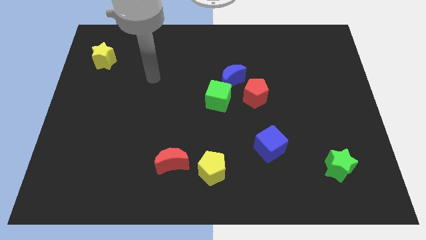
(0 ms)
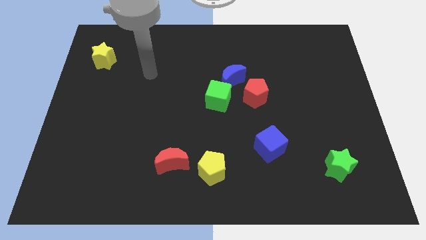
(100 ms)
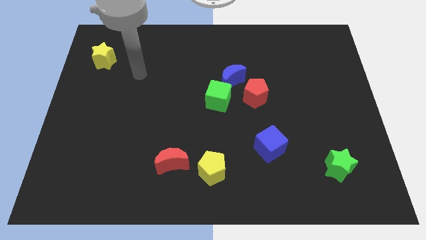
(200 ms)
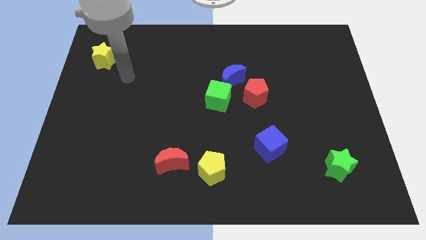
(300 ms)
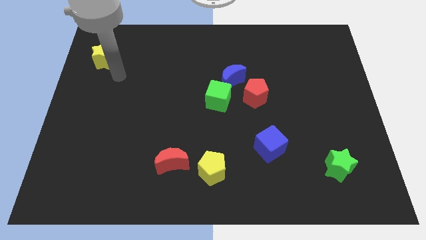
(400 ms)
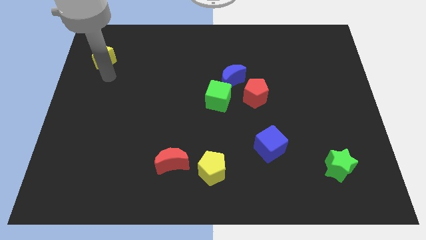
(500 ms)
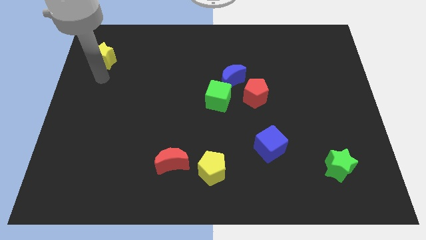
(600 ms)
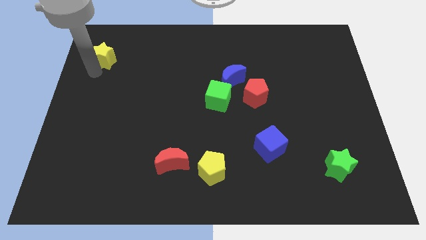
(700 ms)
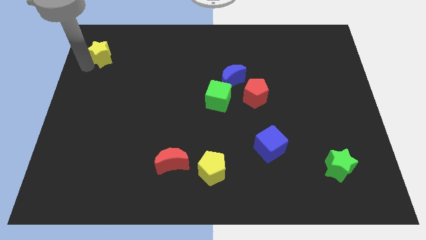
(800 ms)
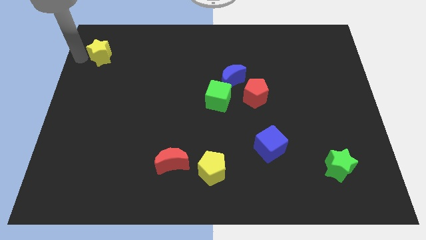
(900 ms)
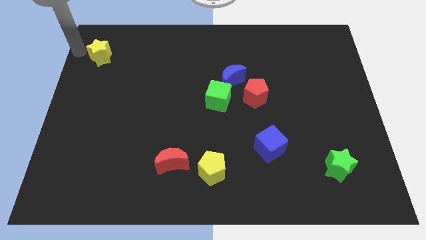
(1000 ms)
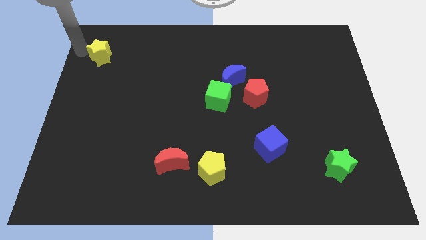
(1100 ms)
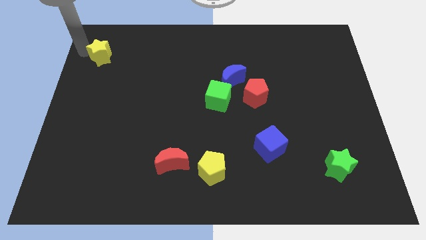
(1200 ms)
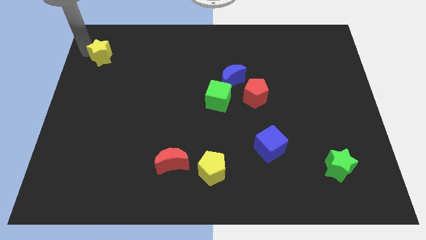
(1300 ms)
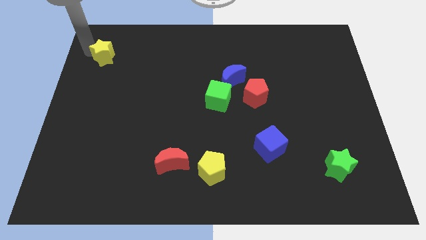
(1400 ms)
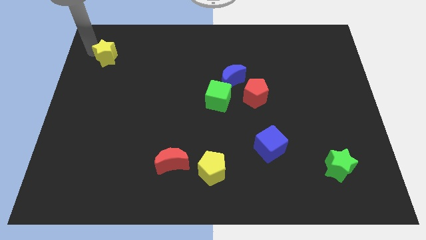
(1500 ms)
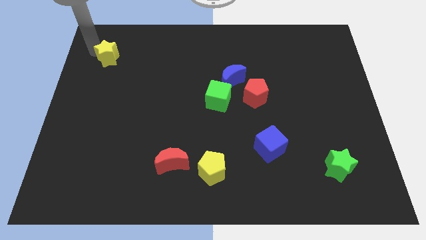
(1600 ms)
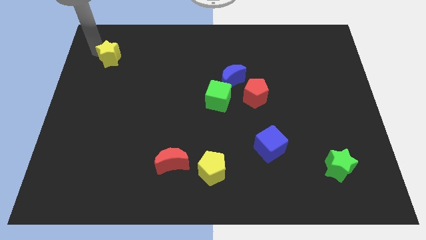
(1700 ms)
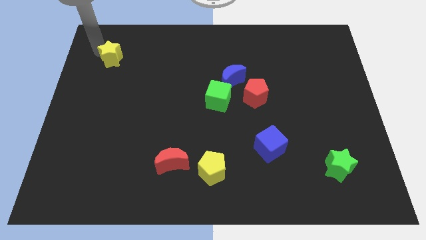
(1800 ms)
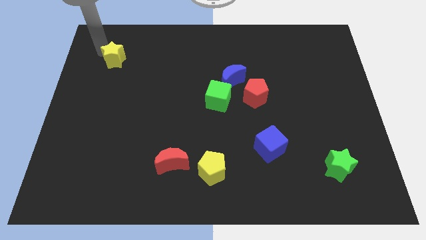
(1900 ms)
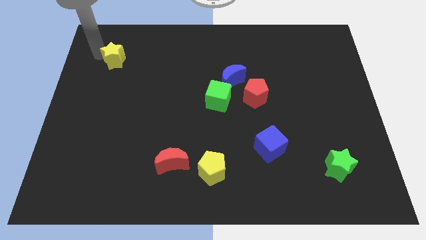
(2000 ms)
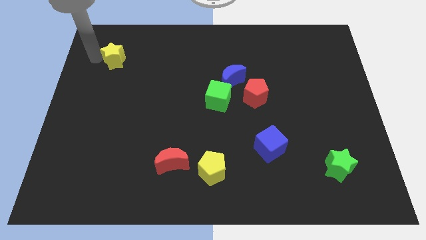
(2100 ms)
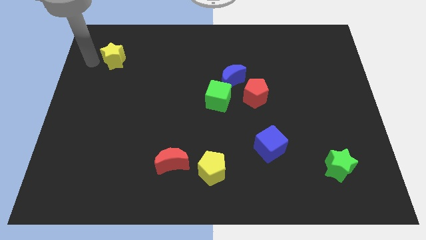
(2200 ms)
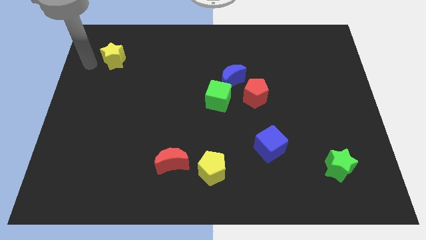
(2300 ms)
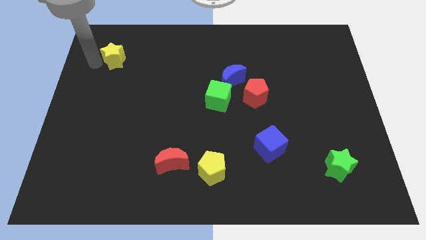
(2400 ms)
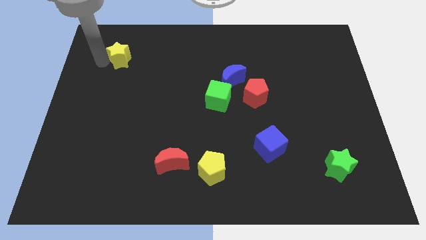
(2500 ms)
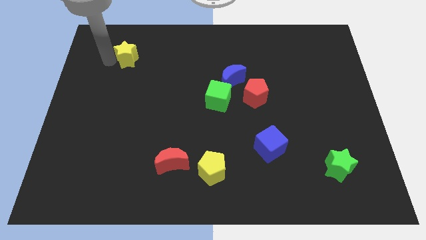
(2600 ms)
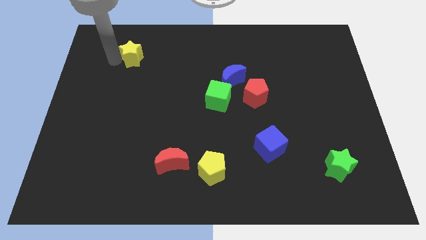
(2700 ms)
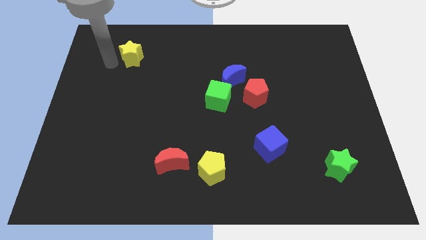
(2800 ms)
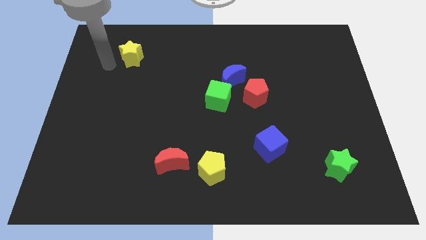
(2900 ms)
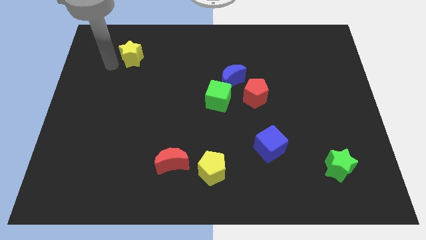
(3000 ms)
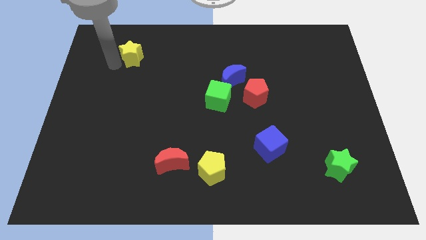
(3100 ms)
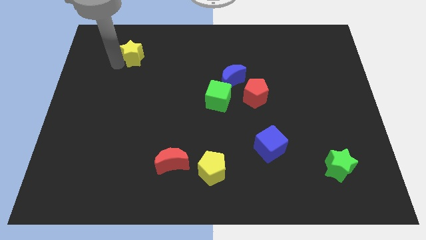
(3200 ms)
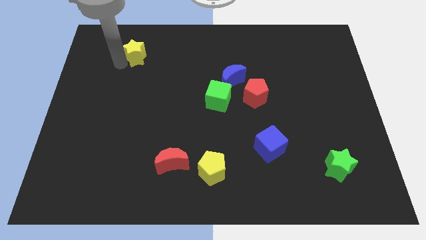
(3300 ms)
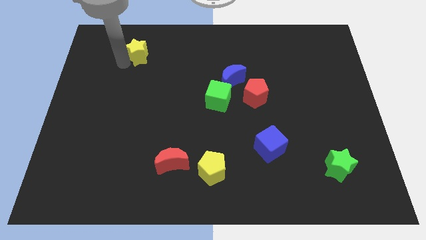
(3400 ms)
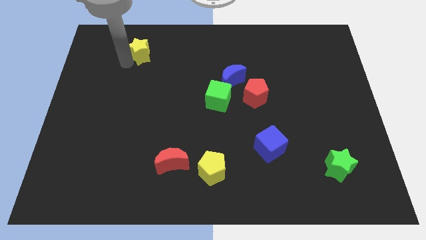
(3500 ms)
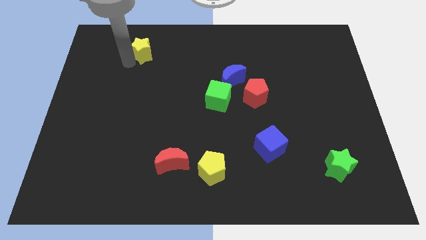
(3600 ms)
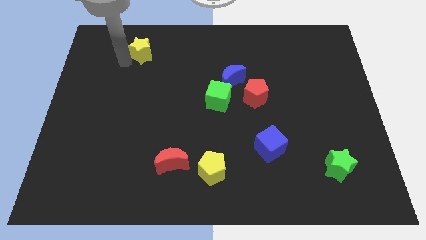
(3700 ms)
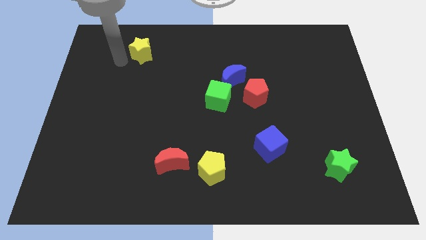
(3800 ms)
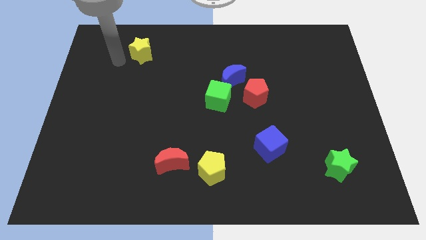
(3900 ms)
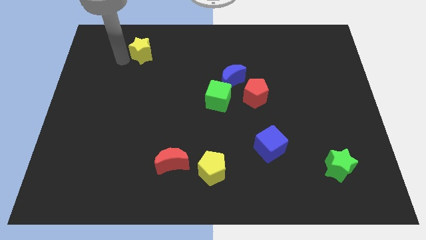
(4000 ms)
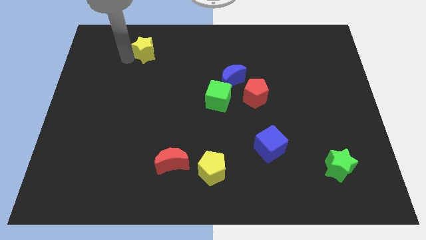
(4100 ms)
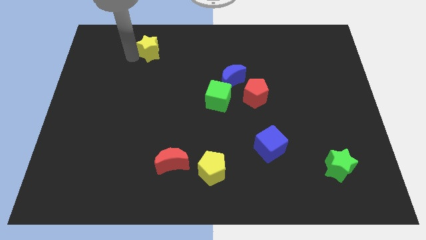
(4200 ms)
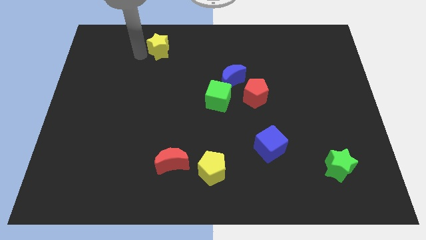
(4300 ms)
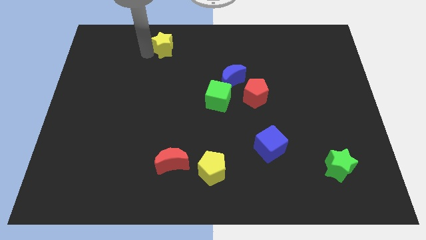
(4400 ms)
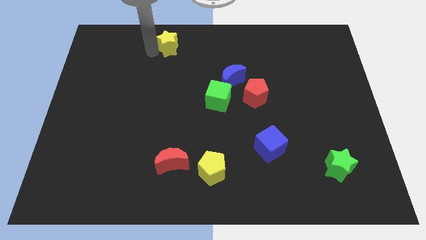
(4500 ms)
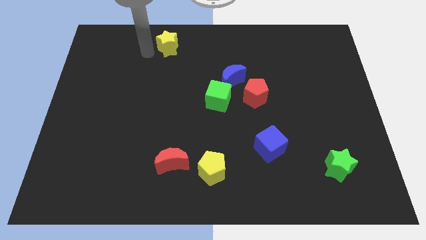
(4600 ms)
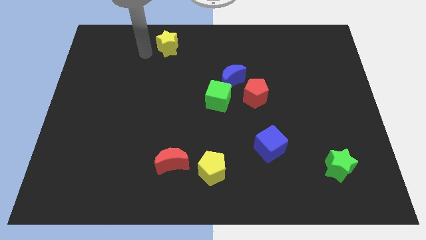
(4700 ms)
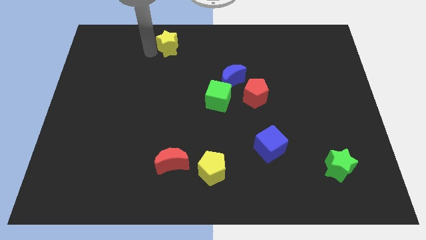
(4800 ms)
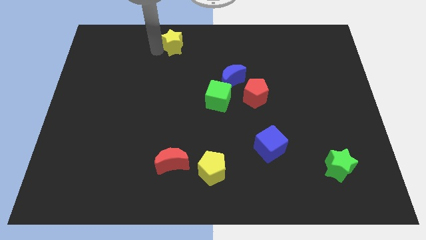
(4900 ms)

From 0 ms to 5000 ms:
move the yellow star to the top

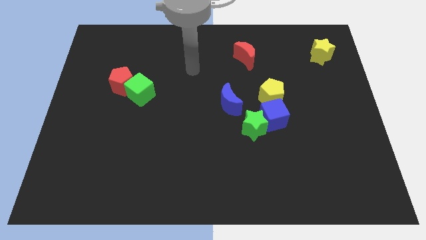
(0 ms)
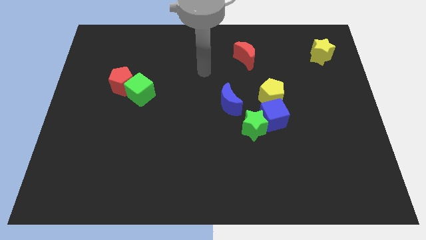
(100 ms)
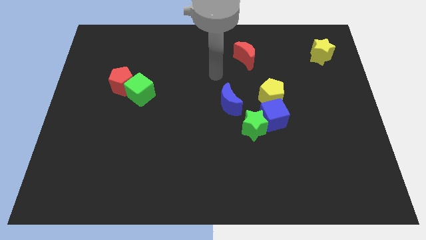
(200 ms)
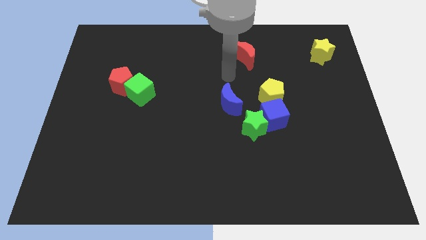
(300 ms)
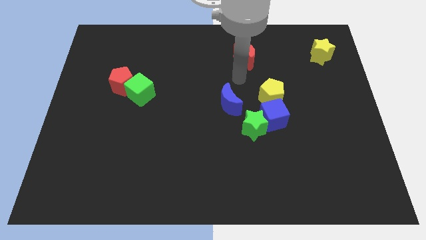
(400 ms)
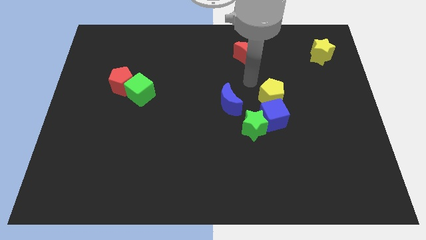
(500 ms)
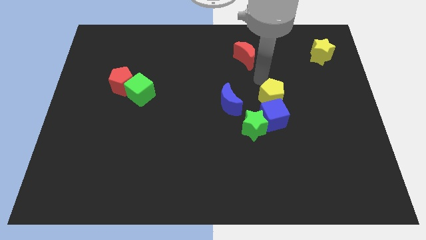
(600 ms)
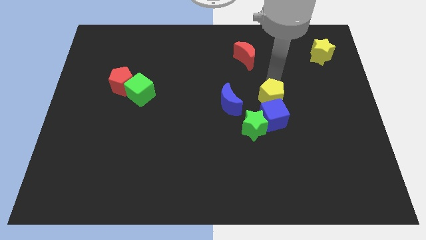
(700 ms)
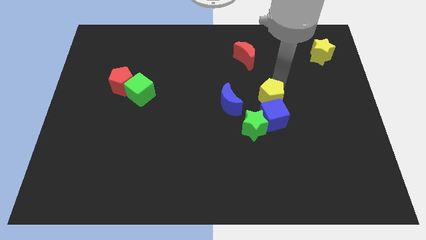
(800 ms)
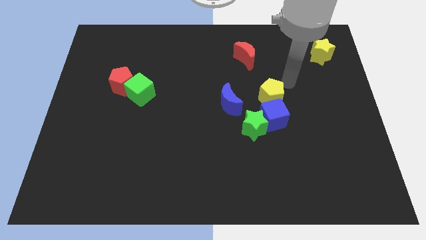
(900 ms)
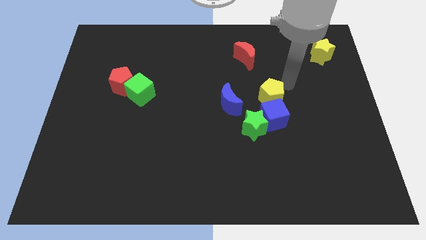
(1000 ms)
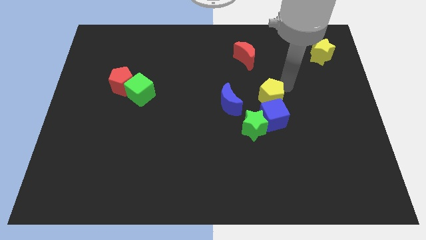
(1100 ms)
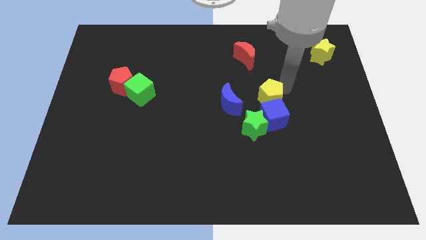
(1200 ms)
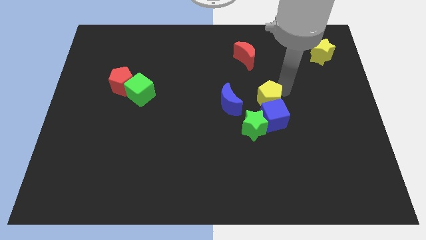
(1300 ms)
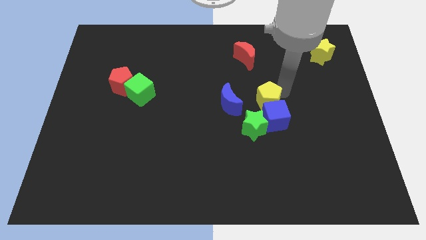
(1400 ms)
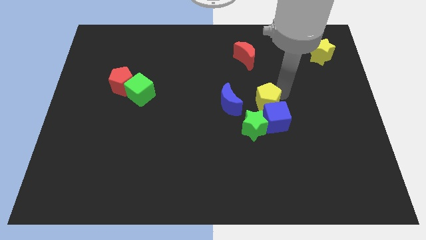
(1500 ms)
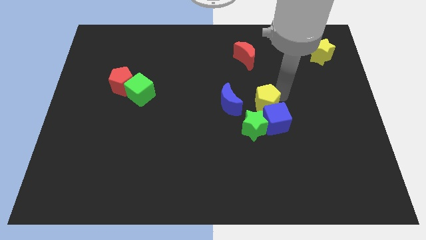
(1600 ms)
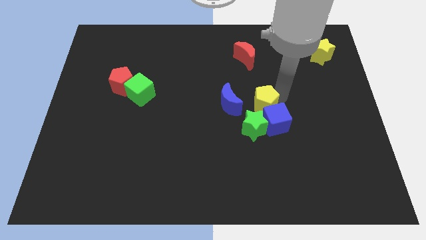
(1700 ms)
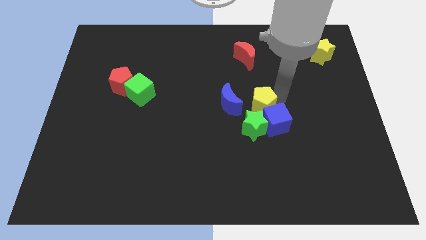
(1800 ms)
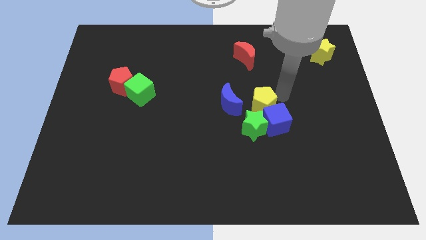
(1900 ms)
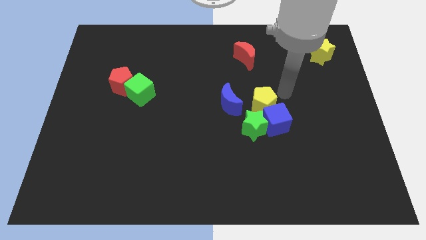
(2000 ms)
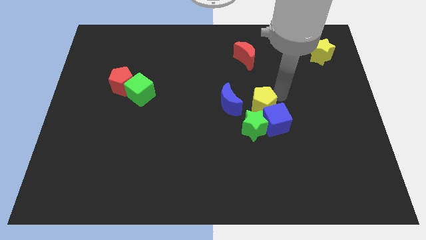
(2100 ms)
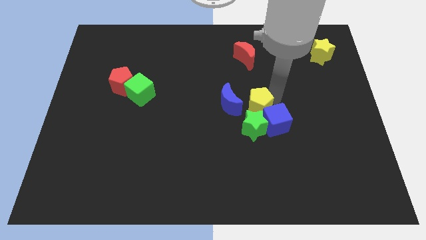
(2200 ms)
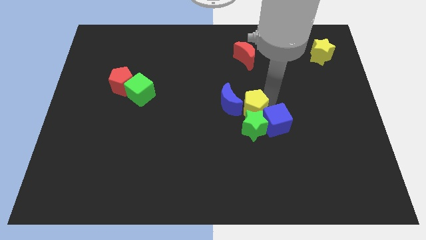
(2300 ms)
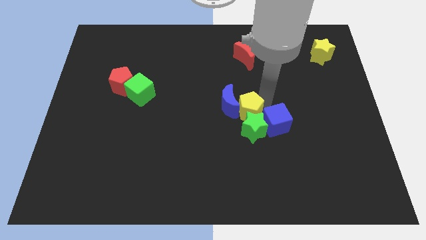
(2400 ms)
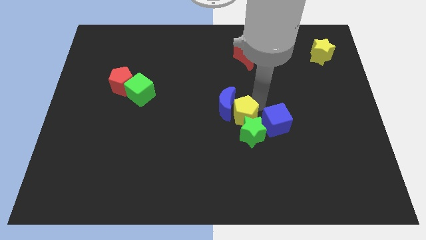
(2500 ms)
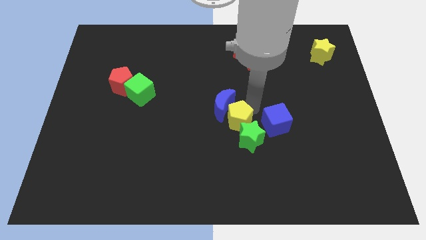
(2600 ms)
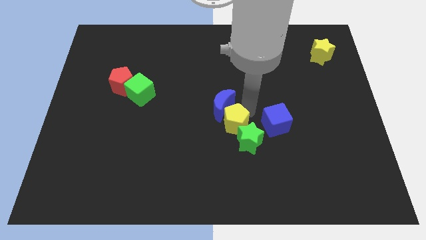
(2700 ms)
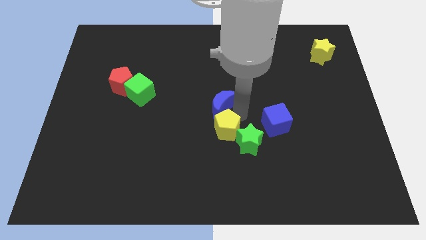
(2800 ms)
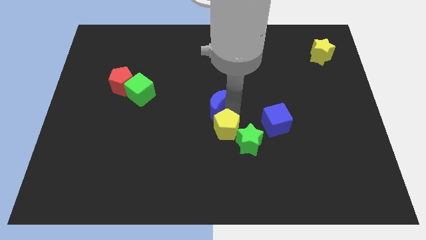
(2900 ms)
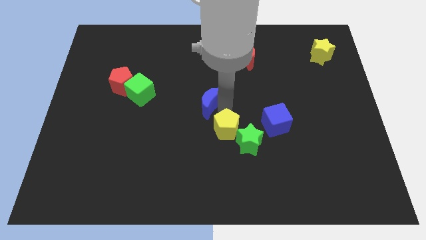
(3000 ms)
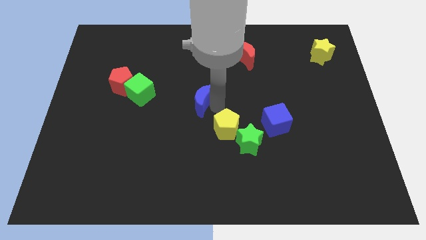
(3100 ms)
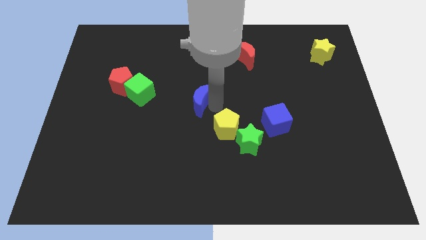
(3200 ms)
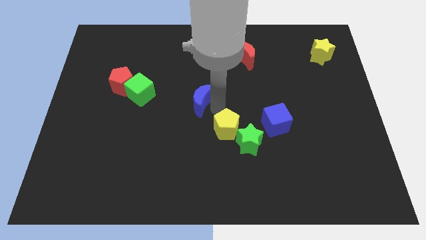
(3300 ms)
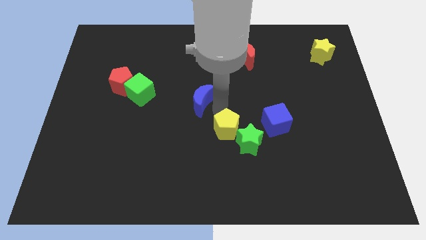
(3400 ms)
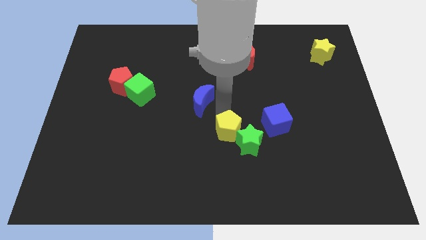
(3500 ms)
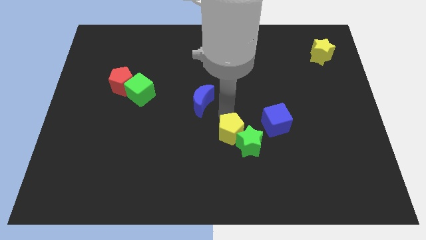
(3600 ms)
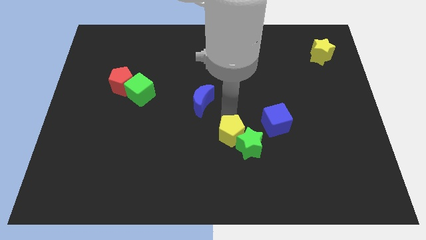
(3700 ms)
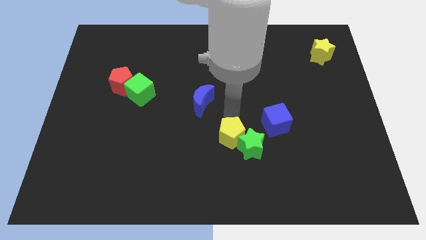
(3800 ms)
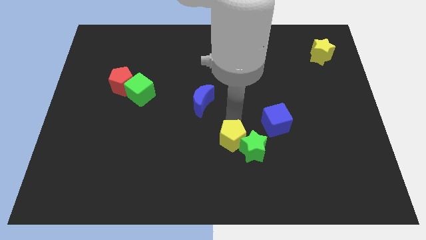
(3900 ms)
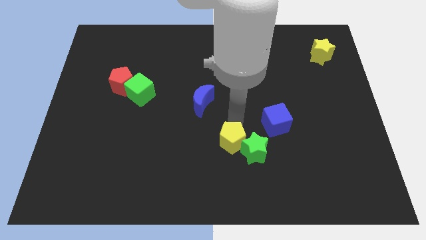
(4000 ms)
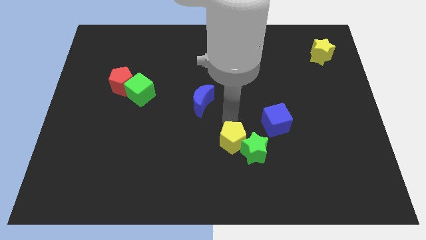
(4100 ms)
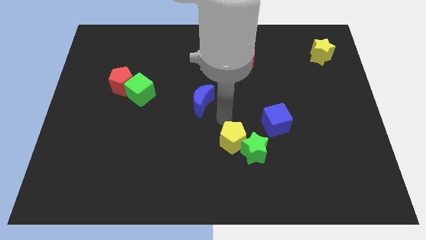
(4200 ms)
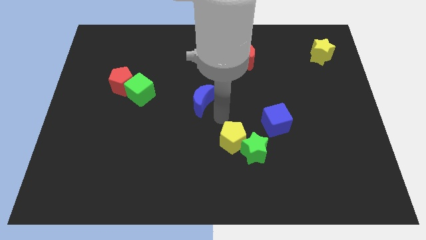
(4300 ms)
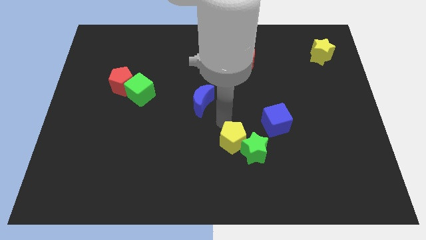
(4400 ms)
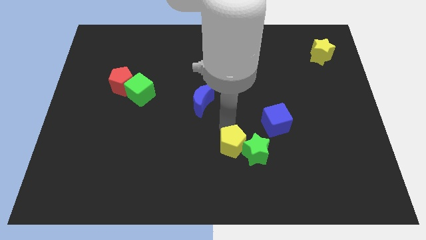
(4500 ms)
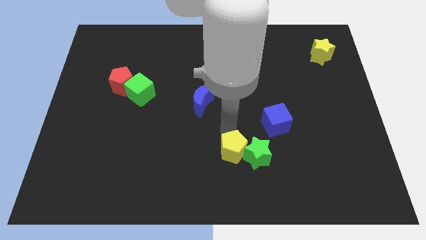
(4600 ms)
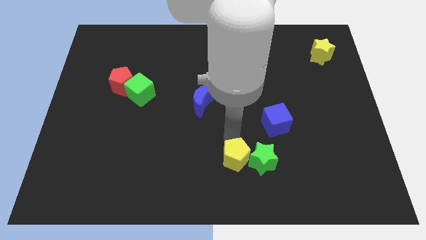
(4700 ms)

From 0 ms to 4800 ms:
push the yellow pentagon to the bottom
